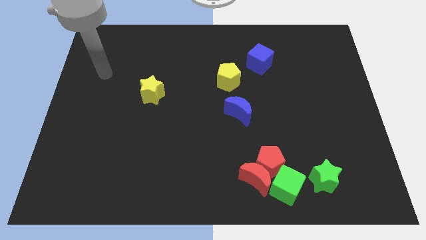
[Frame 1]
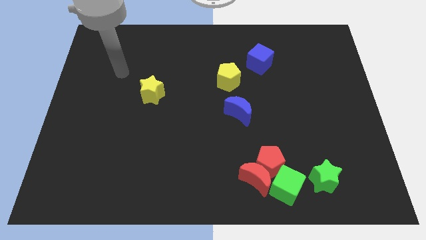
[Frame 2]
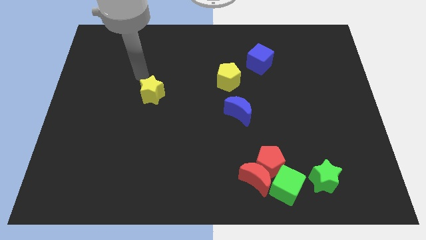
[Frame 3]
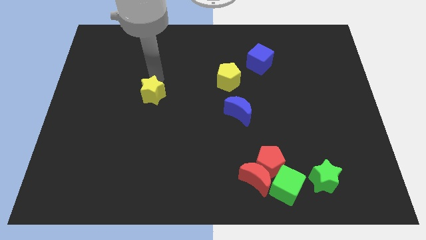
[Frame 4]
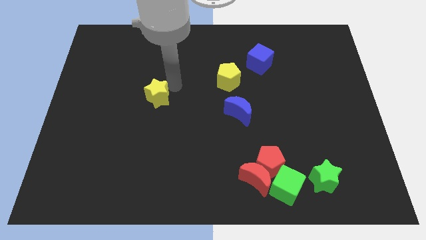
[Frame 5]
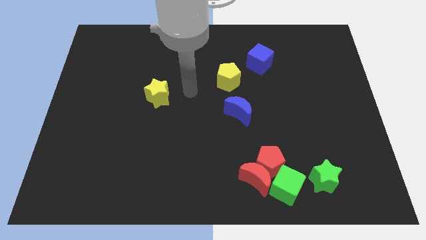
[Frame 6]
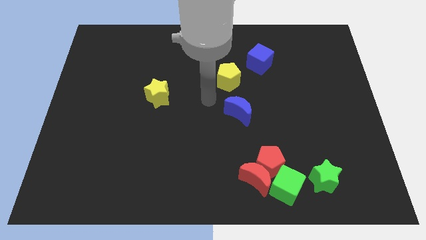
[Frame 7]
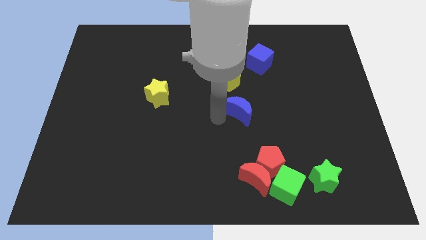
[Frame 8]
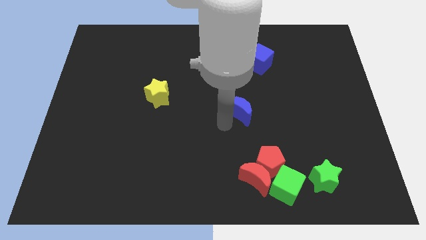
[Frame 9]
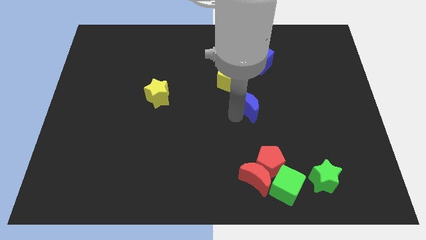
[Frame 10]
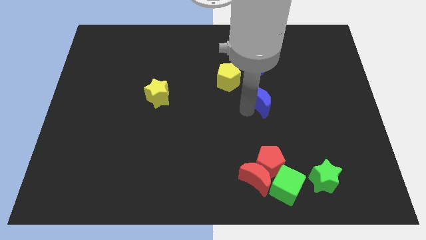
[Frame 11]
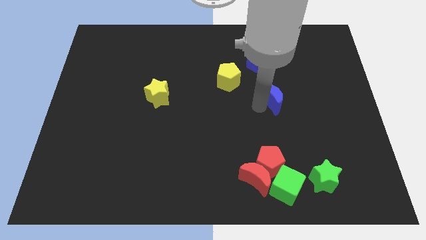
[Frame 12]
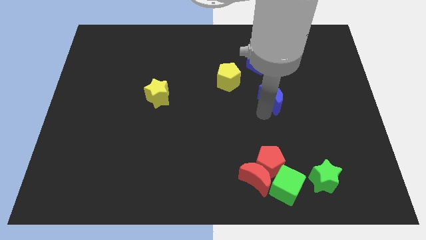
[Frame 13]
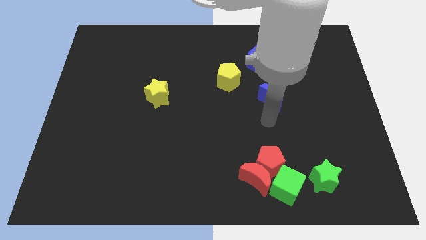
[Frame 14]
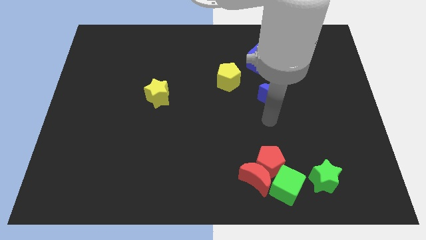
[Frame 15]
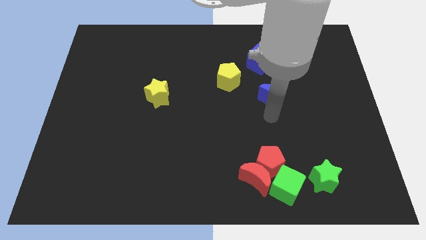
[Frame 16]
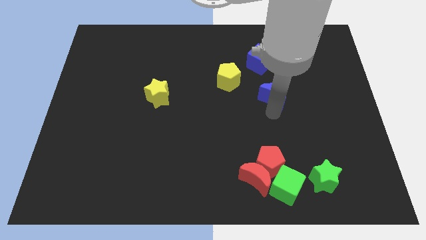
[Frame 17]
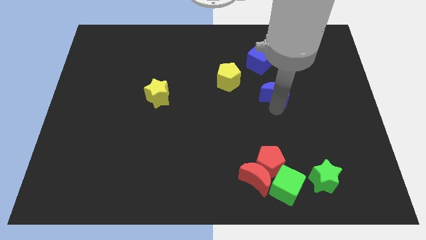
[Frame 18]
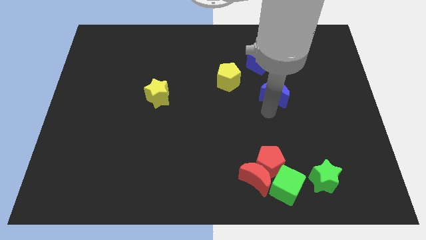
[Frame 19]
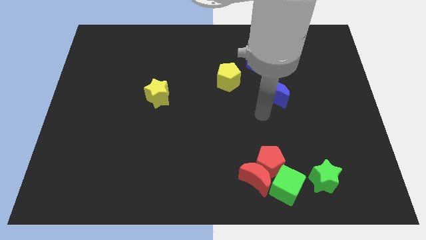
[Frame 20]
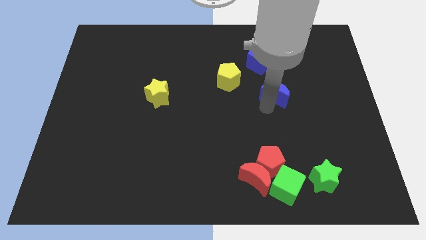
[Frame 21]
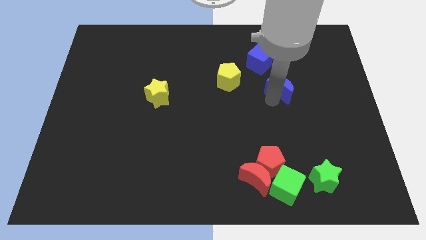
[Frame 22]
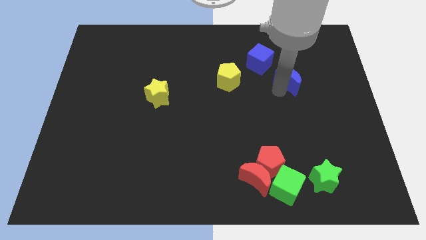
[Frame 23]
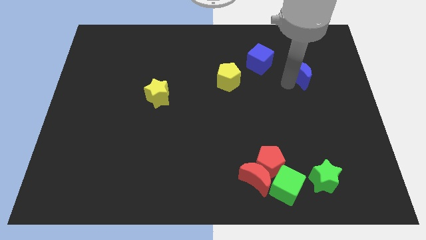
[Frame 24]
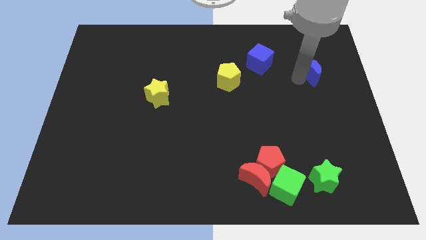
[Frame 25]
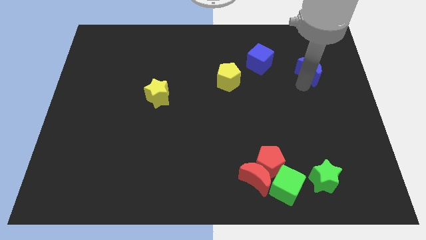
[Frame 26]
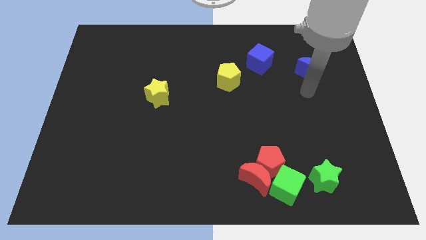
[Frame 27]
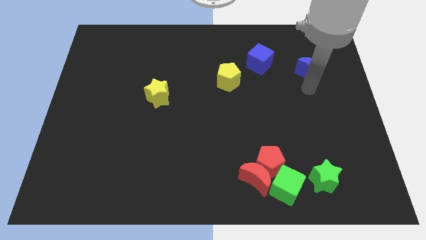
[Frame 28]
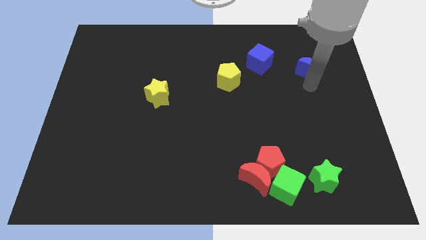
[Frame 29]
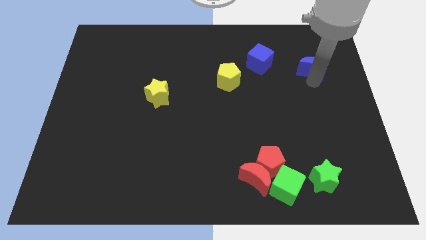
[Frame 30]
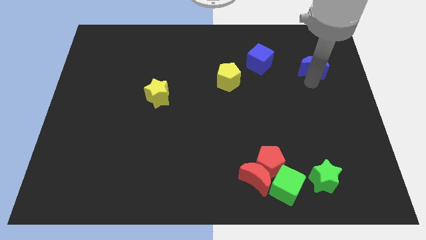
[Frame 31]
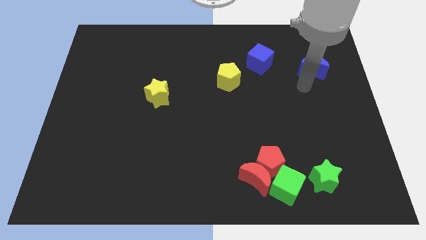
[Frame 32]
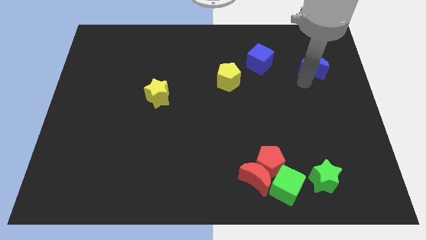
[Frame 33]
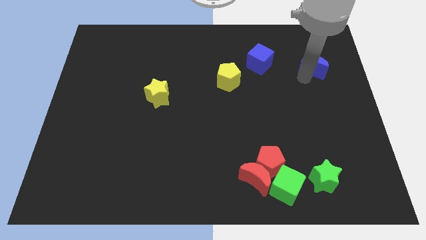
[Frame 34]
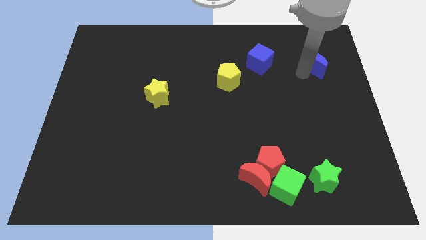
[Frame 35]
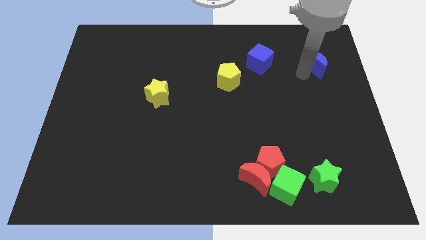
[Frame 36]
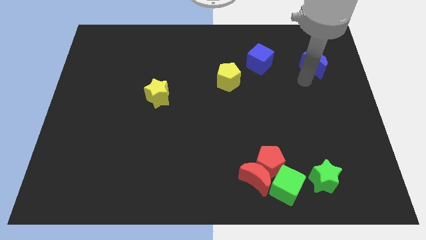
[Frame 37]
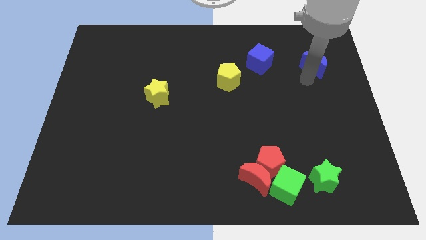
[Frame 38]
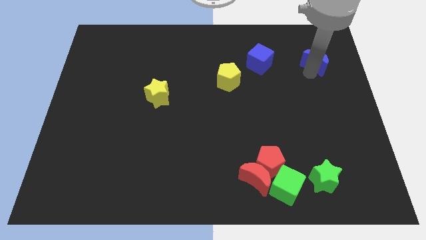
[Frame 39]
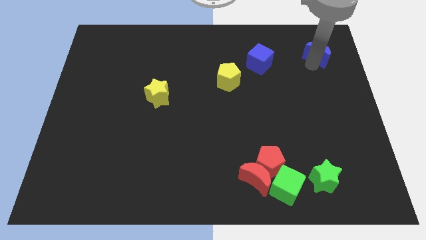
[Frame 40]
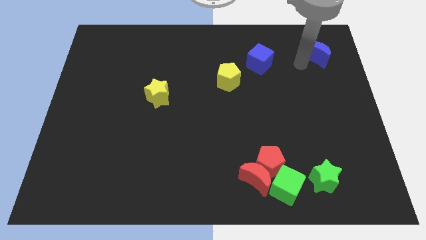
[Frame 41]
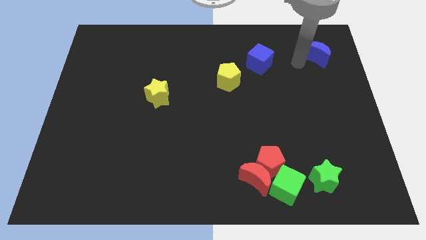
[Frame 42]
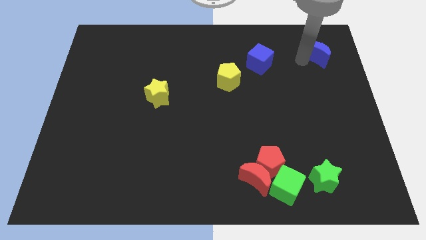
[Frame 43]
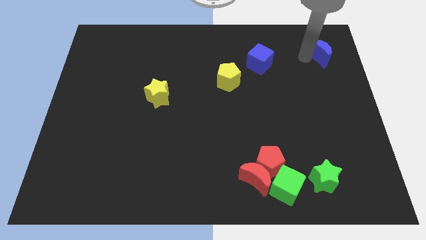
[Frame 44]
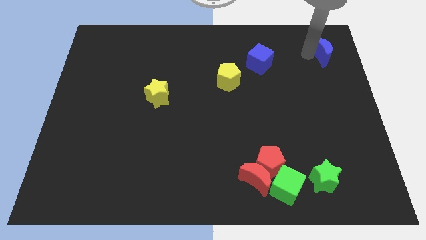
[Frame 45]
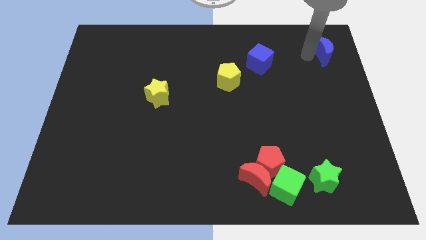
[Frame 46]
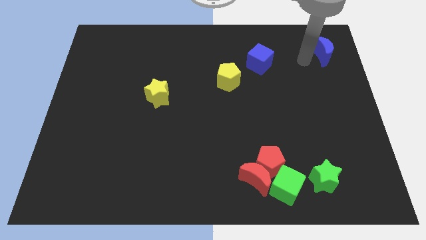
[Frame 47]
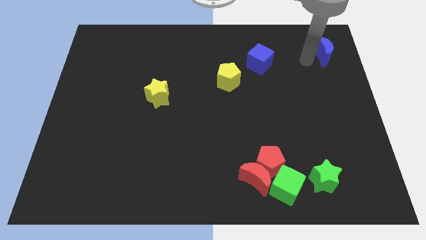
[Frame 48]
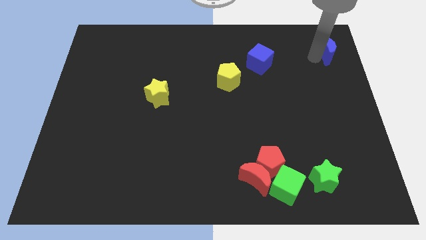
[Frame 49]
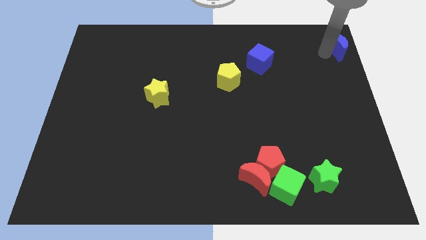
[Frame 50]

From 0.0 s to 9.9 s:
slide the blue moon to the top right of the board
